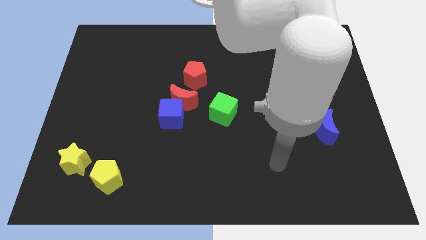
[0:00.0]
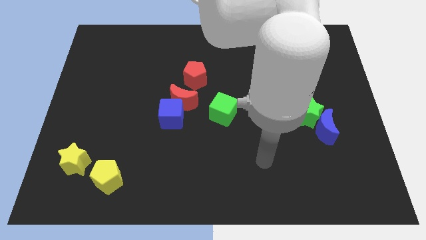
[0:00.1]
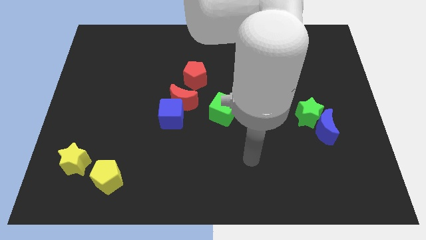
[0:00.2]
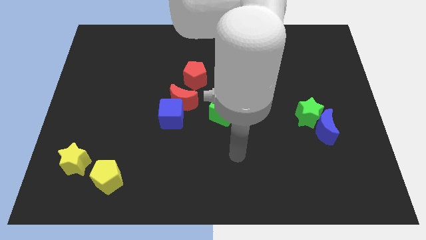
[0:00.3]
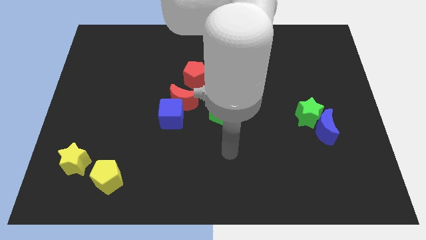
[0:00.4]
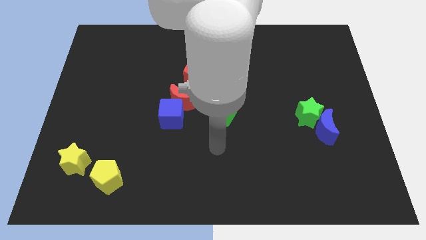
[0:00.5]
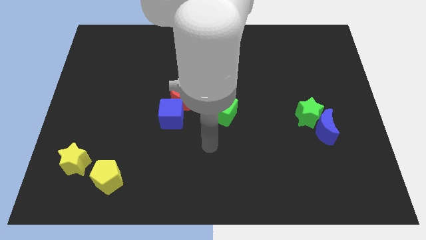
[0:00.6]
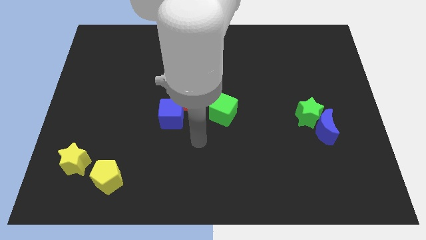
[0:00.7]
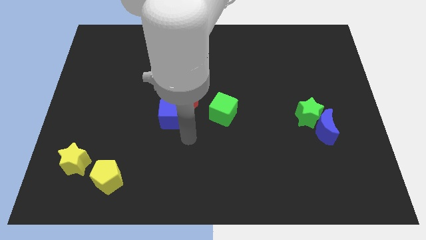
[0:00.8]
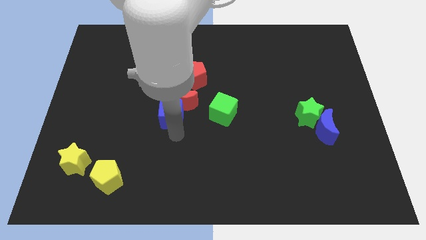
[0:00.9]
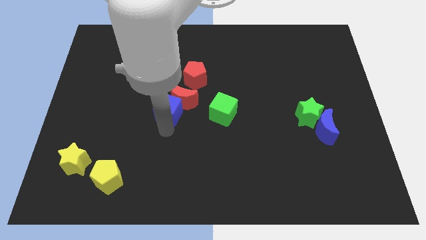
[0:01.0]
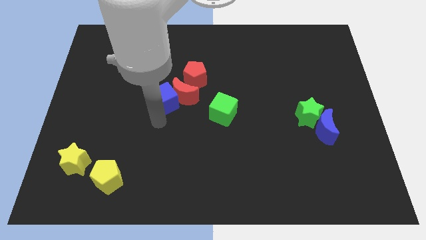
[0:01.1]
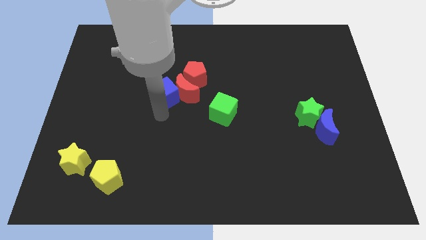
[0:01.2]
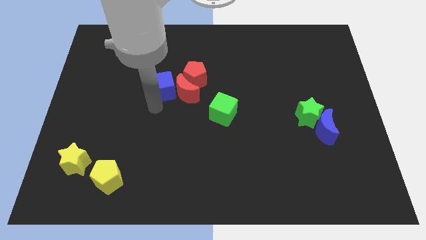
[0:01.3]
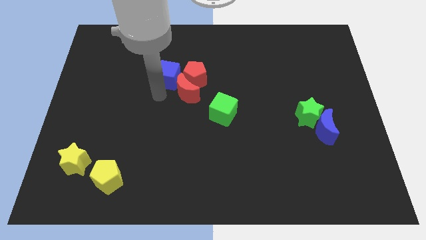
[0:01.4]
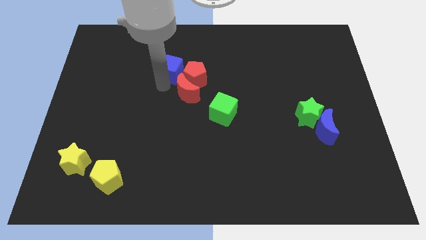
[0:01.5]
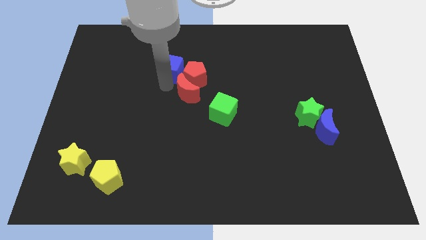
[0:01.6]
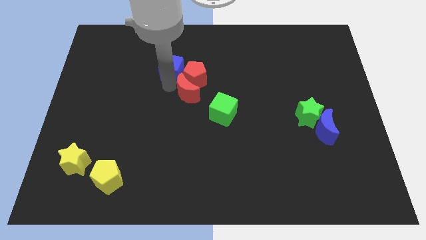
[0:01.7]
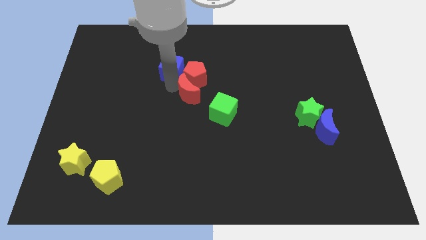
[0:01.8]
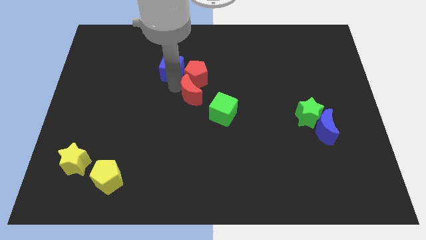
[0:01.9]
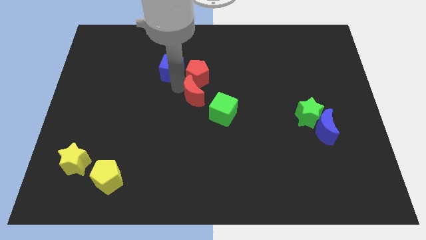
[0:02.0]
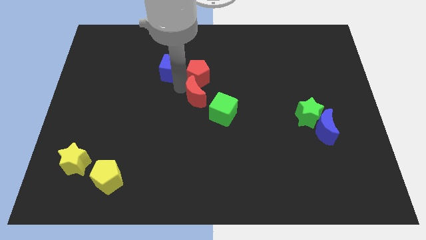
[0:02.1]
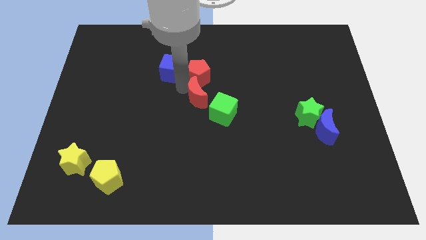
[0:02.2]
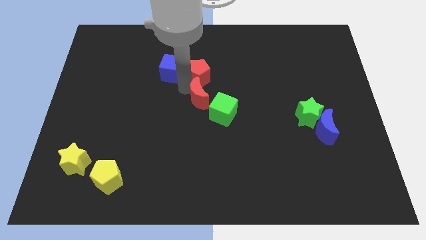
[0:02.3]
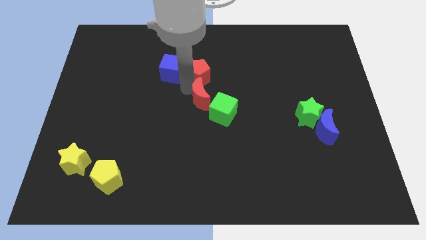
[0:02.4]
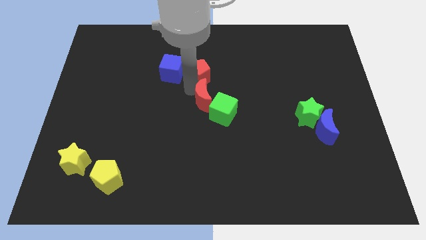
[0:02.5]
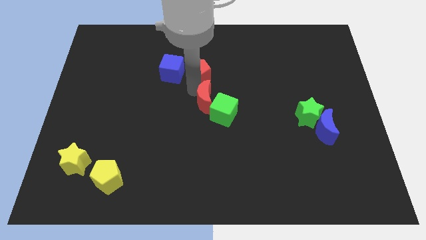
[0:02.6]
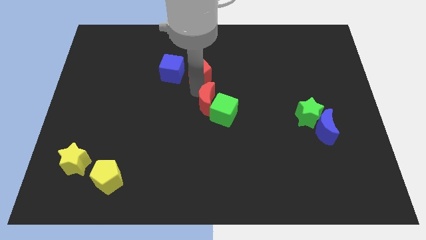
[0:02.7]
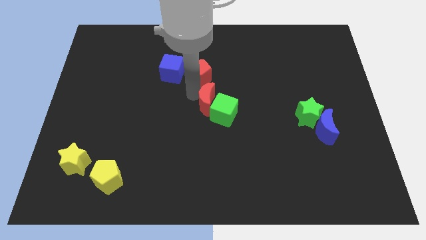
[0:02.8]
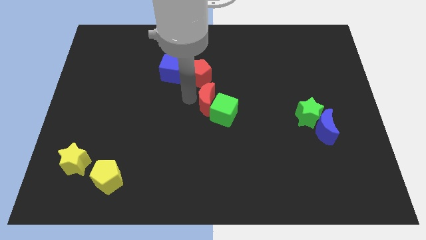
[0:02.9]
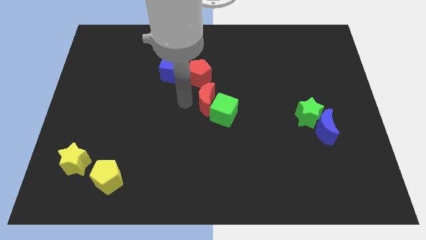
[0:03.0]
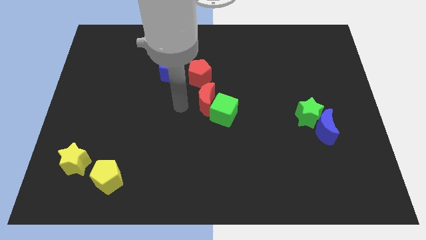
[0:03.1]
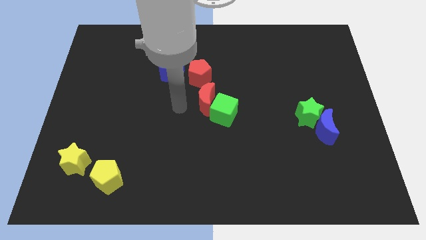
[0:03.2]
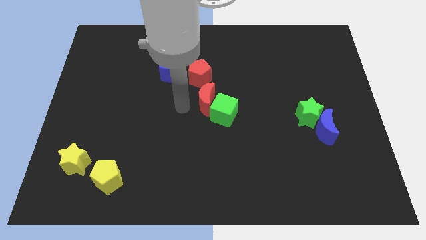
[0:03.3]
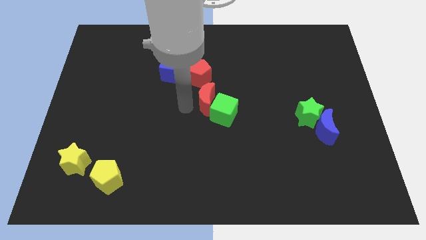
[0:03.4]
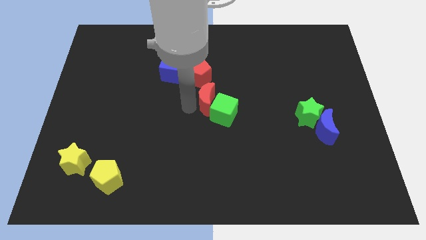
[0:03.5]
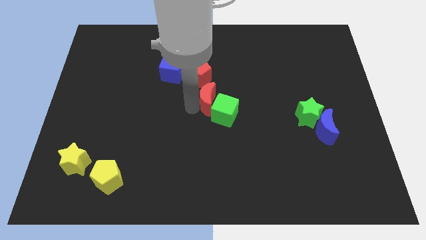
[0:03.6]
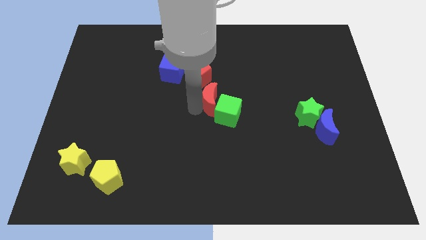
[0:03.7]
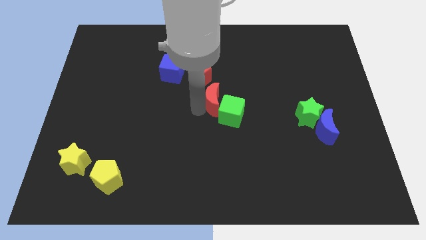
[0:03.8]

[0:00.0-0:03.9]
push the red moon to the right a little bit

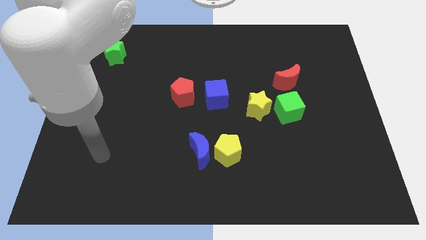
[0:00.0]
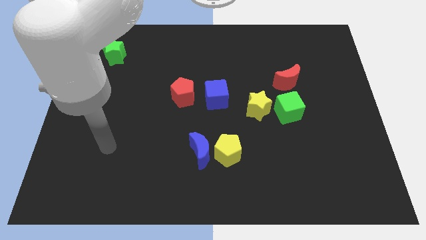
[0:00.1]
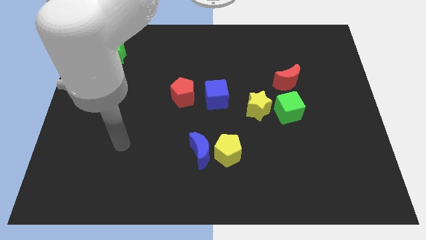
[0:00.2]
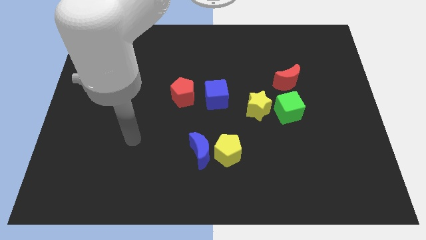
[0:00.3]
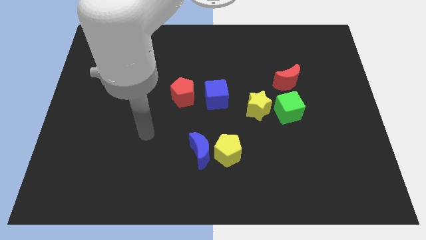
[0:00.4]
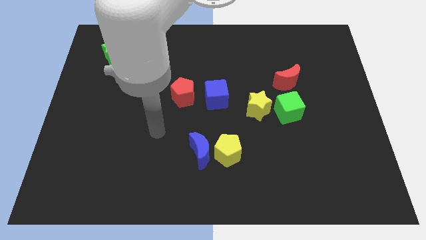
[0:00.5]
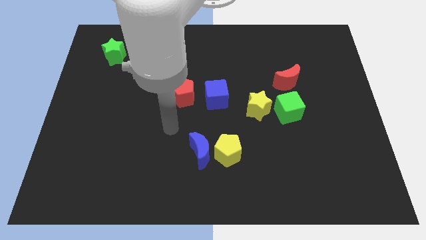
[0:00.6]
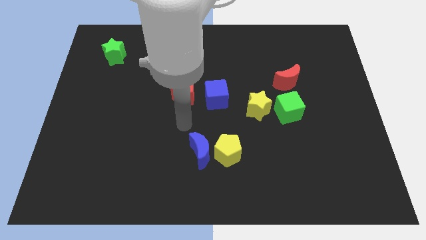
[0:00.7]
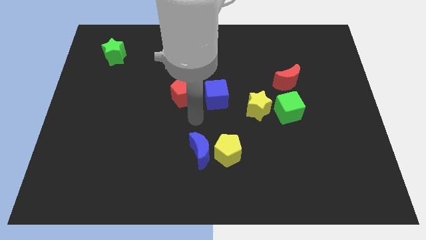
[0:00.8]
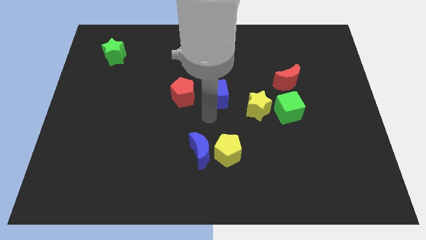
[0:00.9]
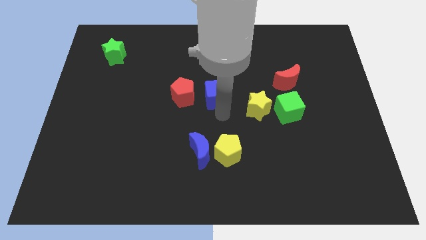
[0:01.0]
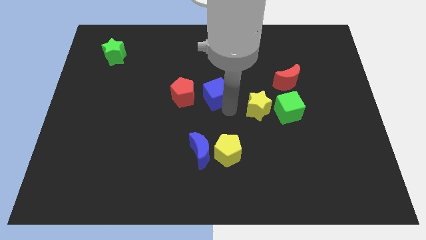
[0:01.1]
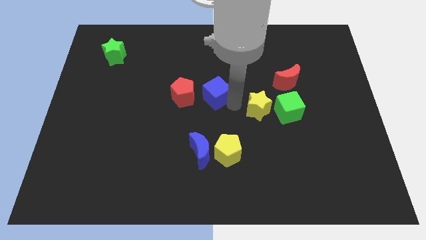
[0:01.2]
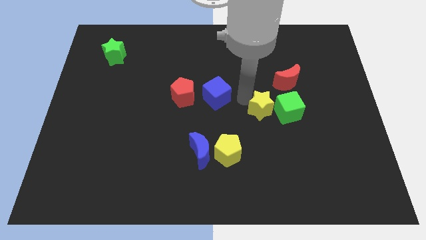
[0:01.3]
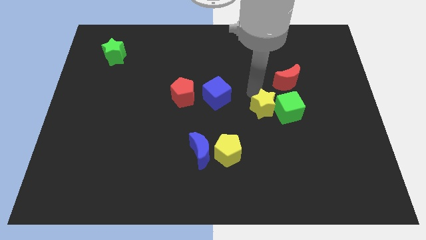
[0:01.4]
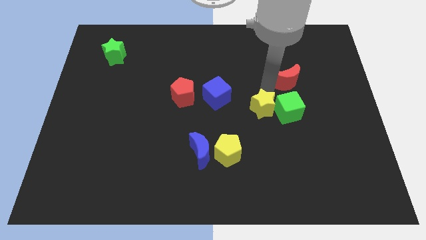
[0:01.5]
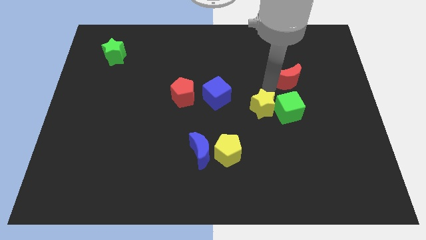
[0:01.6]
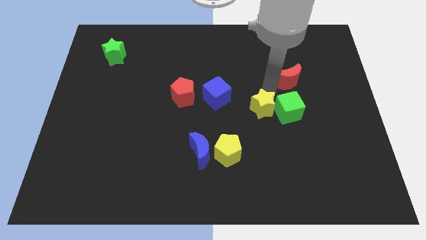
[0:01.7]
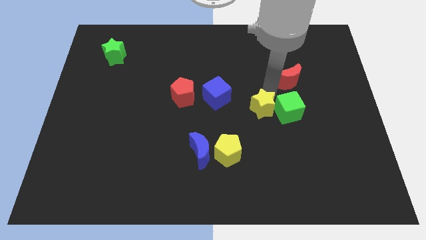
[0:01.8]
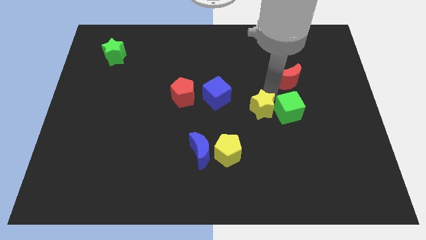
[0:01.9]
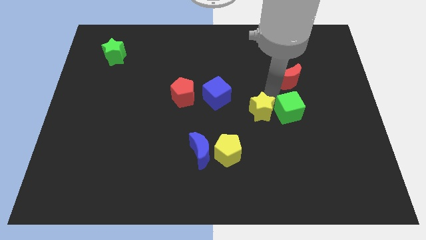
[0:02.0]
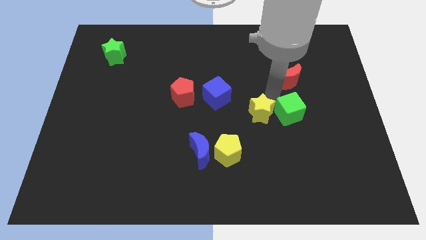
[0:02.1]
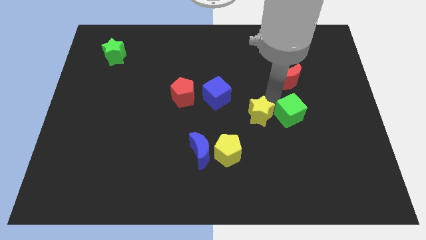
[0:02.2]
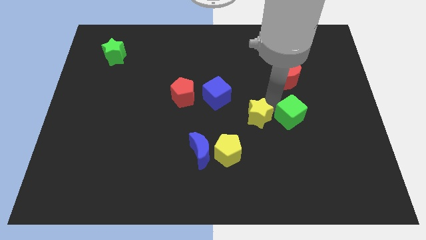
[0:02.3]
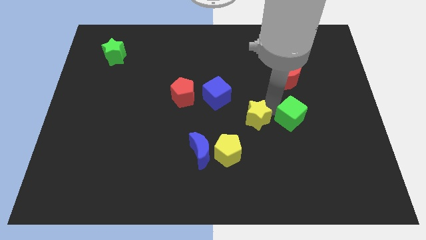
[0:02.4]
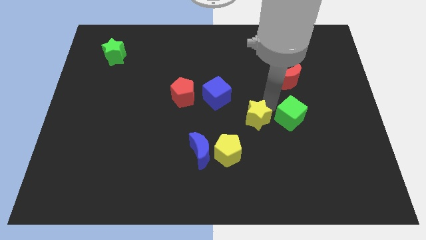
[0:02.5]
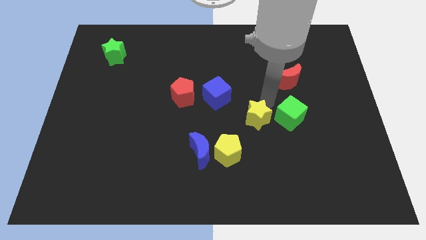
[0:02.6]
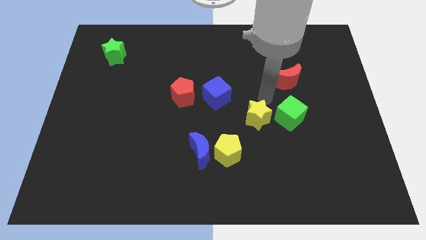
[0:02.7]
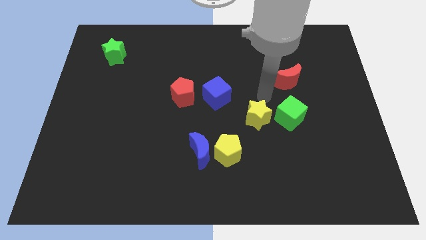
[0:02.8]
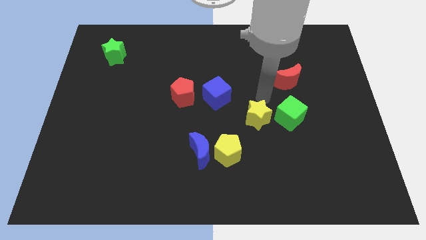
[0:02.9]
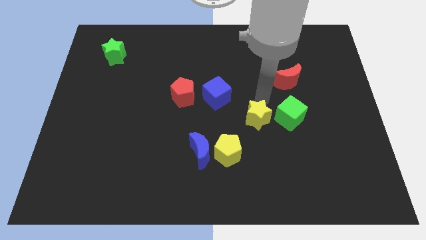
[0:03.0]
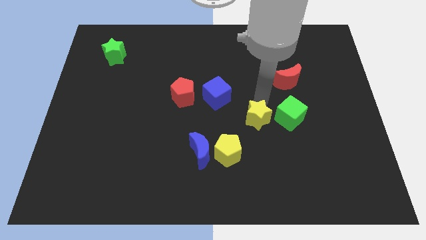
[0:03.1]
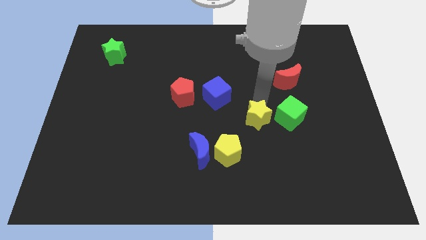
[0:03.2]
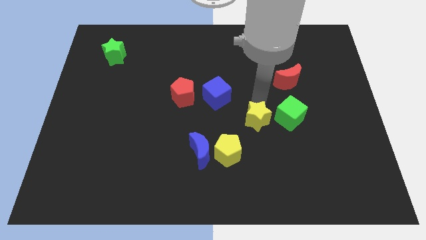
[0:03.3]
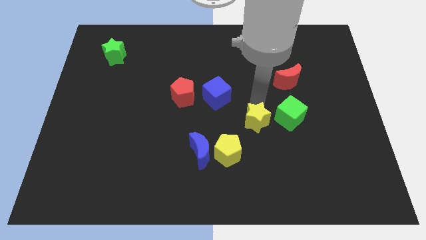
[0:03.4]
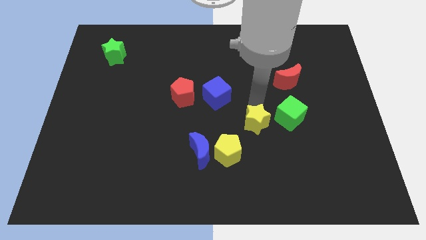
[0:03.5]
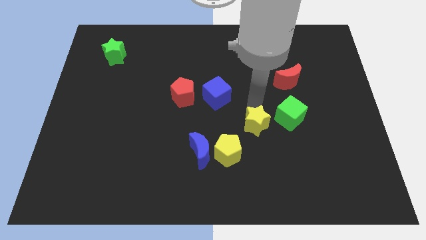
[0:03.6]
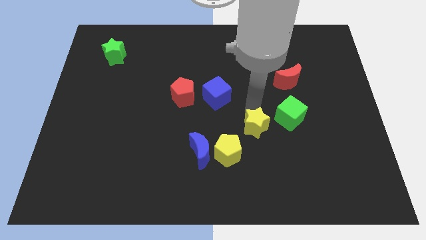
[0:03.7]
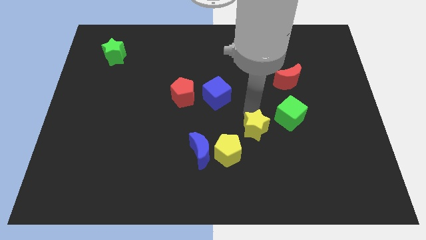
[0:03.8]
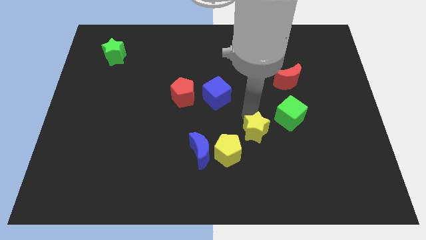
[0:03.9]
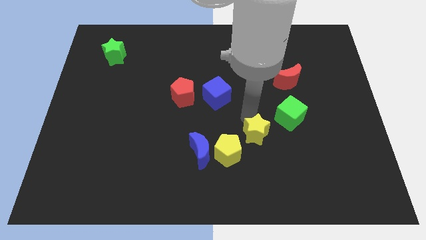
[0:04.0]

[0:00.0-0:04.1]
move the yellow star downwards somewhat
